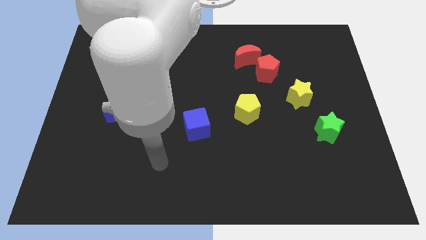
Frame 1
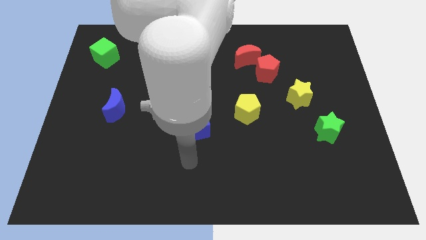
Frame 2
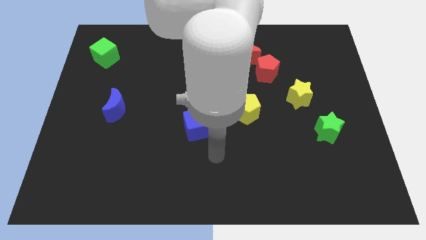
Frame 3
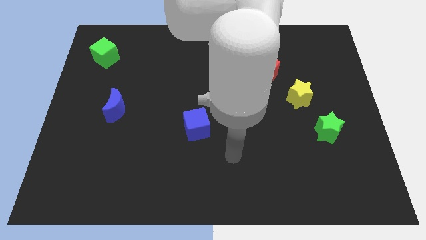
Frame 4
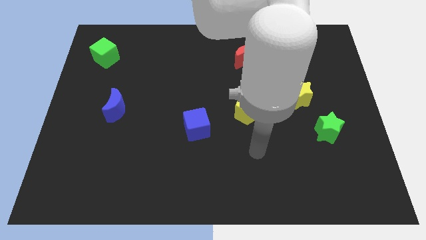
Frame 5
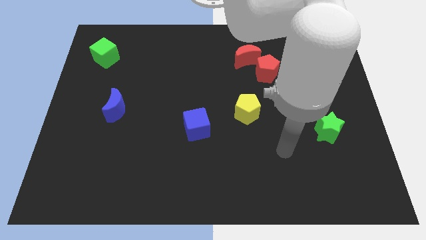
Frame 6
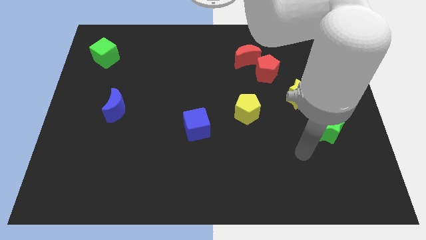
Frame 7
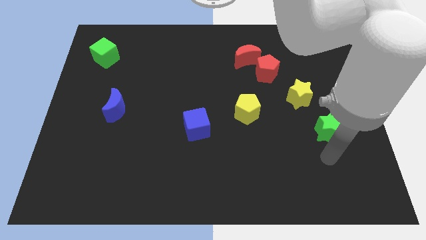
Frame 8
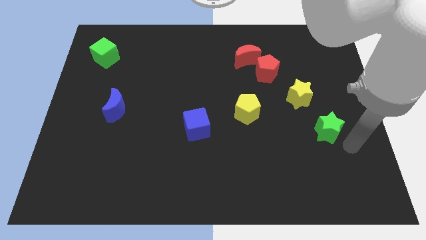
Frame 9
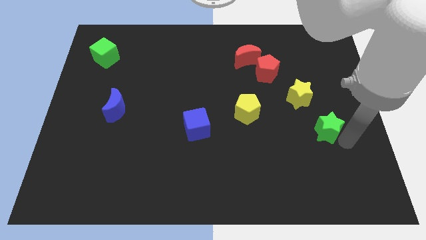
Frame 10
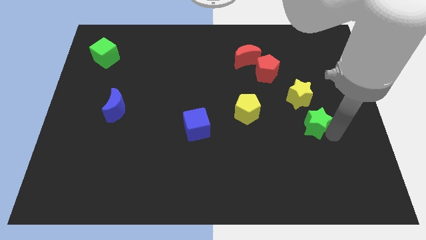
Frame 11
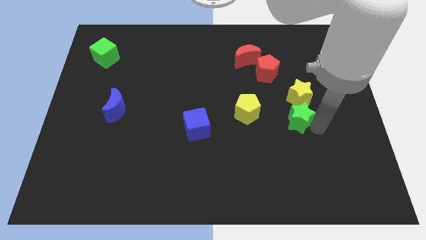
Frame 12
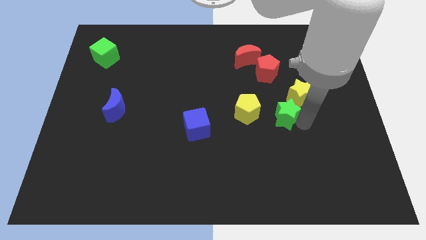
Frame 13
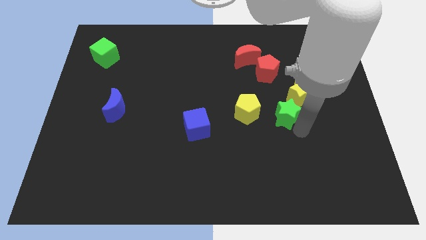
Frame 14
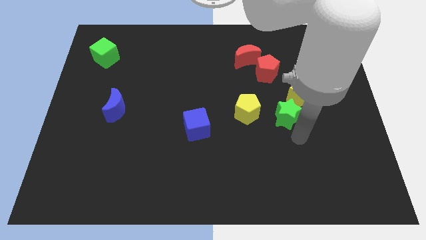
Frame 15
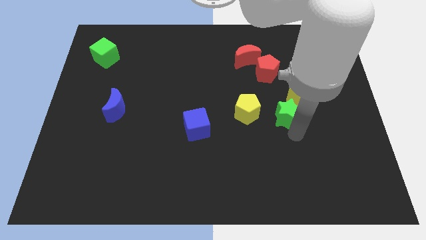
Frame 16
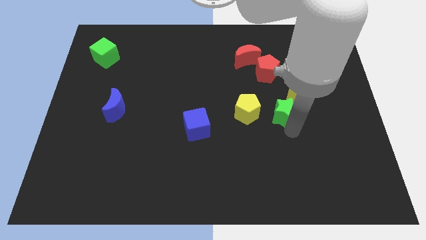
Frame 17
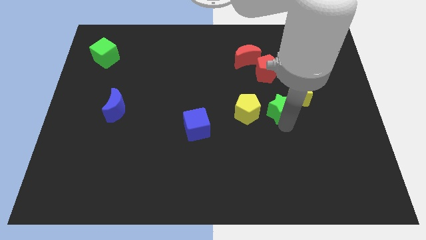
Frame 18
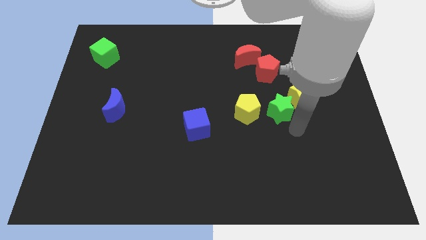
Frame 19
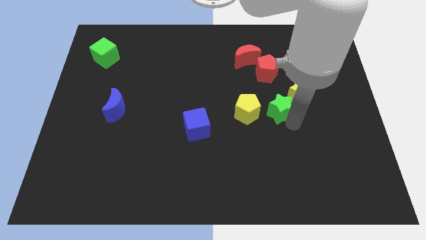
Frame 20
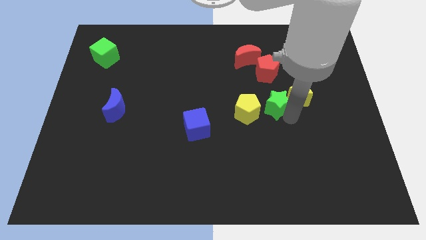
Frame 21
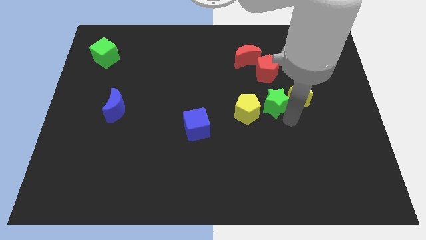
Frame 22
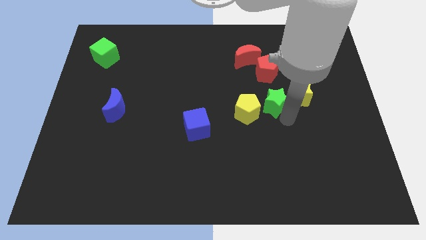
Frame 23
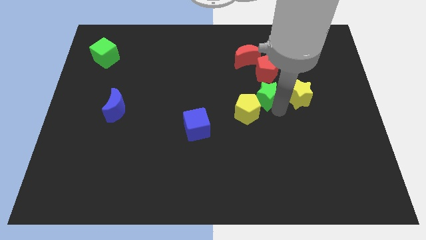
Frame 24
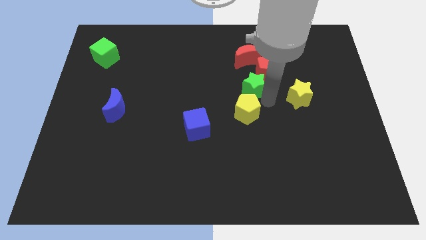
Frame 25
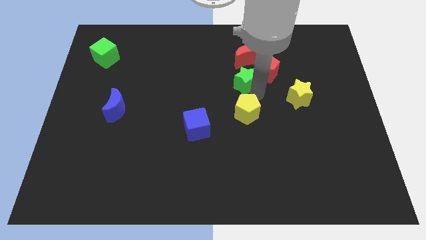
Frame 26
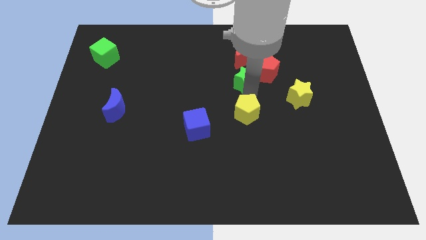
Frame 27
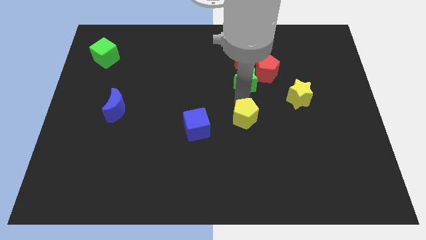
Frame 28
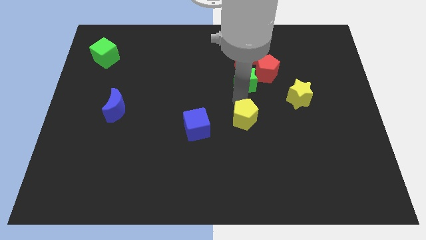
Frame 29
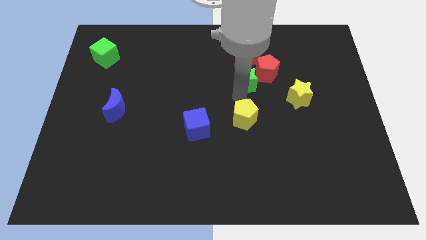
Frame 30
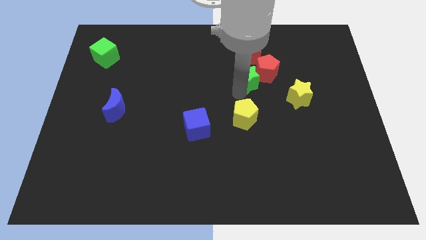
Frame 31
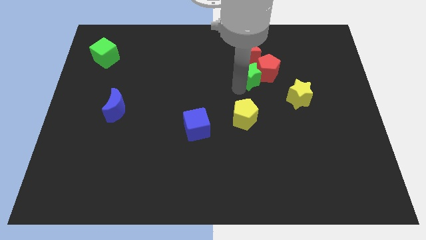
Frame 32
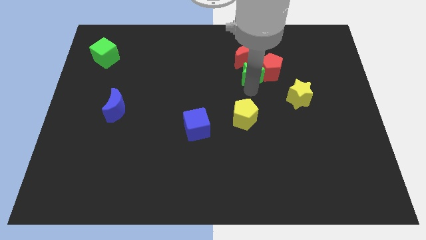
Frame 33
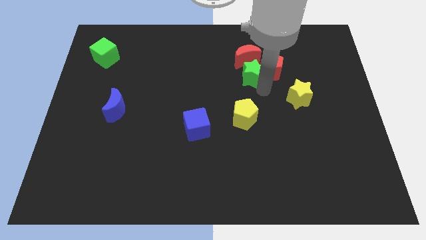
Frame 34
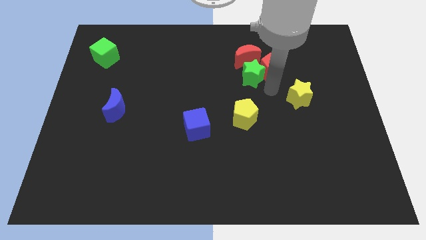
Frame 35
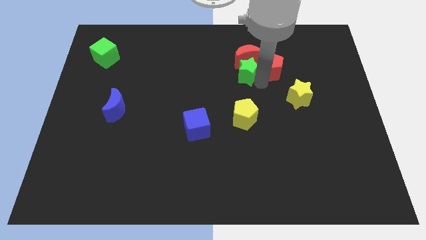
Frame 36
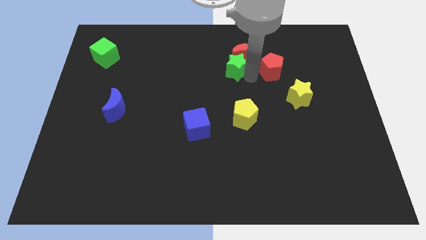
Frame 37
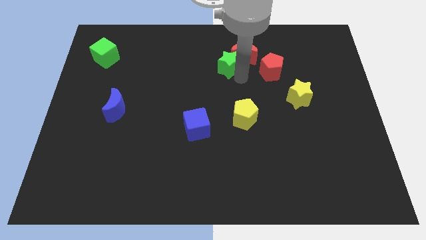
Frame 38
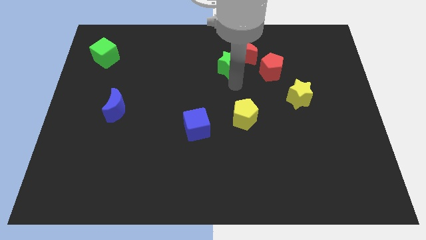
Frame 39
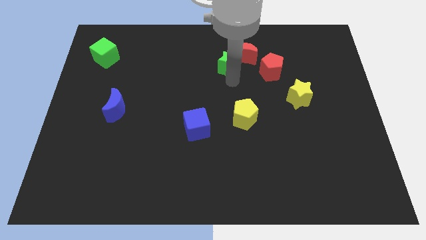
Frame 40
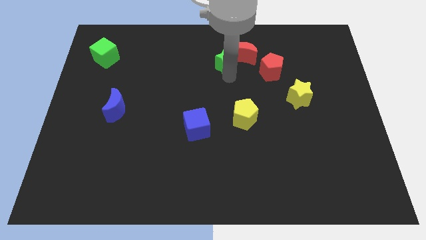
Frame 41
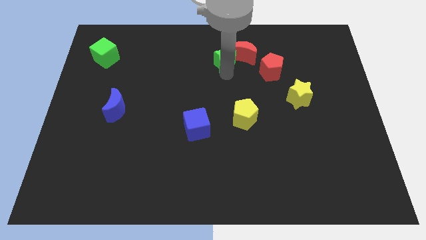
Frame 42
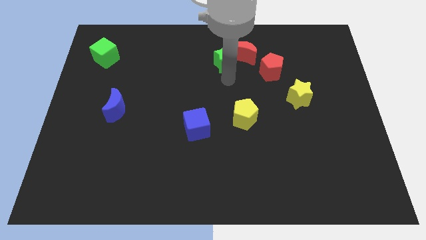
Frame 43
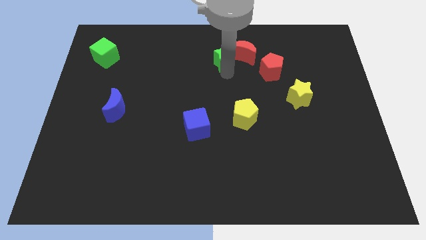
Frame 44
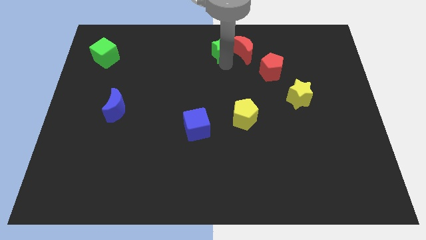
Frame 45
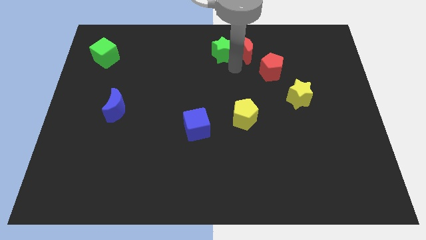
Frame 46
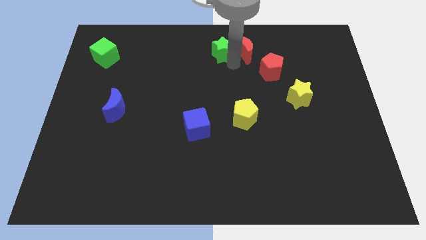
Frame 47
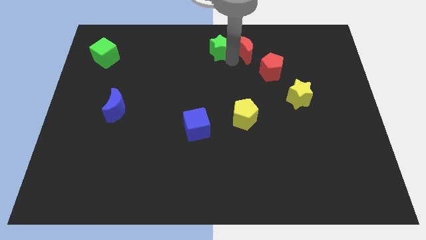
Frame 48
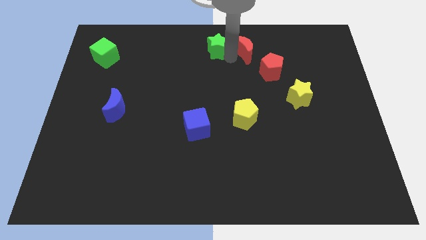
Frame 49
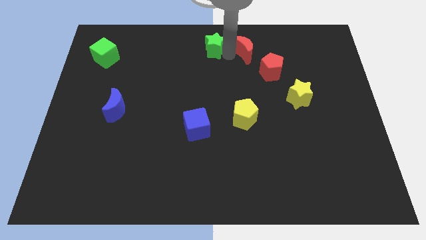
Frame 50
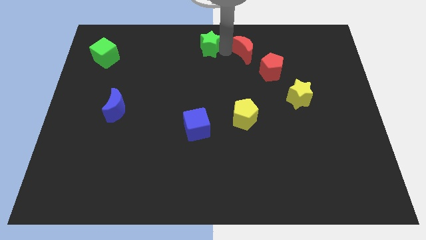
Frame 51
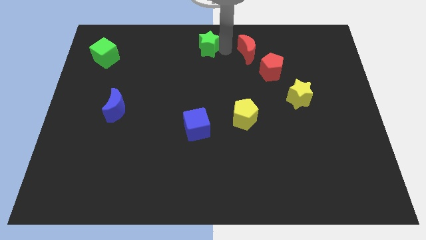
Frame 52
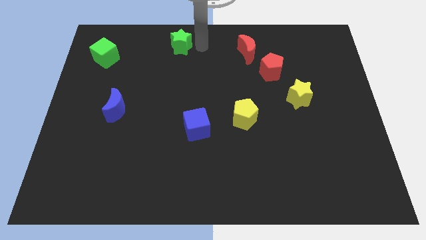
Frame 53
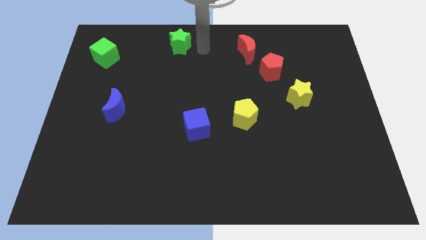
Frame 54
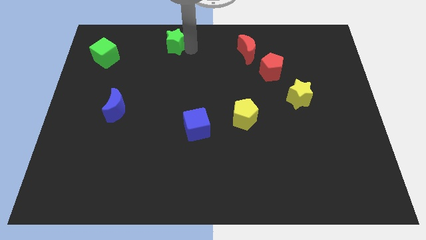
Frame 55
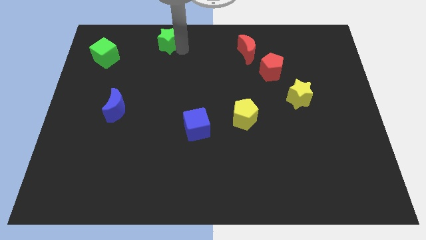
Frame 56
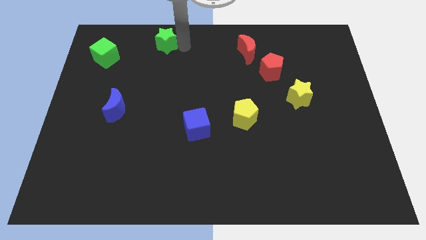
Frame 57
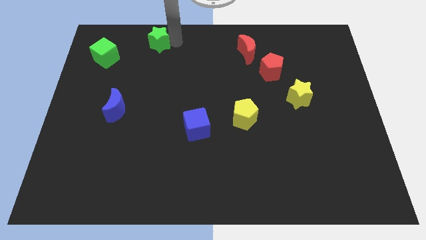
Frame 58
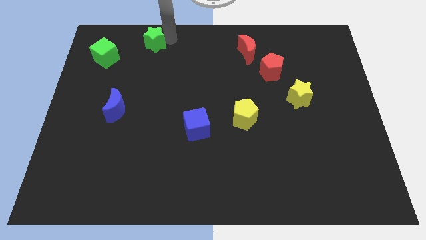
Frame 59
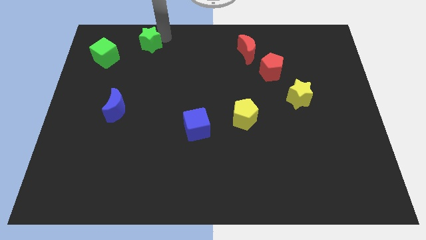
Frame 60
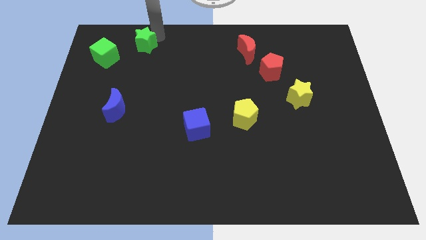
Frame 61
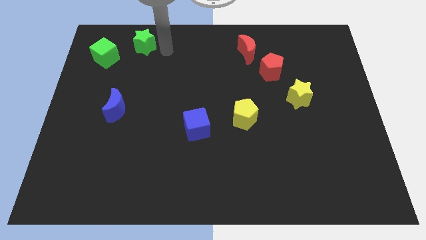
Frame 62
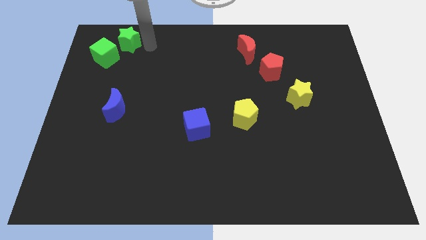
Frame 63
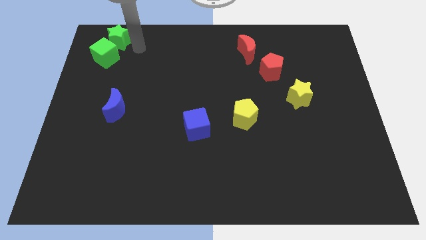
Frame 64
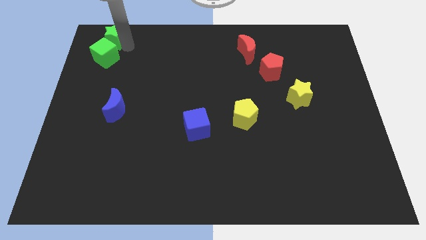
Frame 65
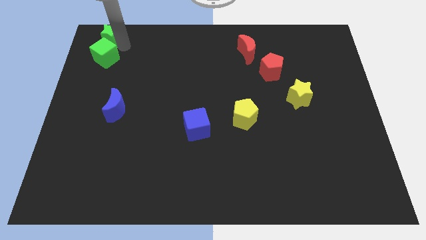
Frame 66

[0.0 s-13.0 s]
slide the green star to the upper left corner
